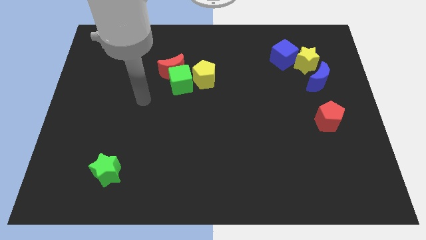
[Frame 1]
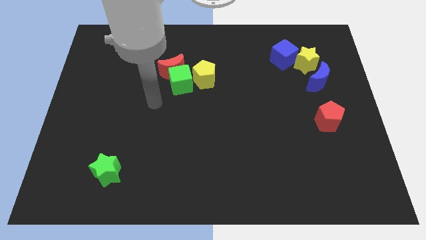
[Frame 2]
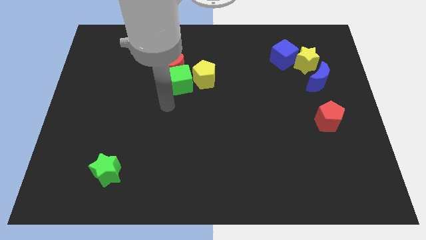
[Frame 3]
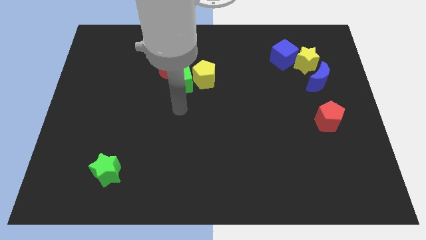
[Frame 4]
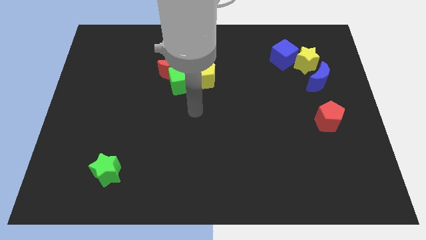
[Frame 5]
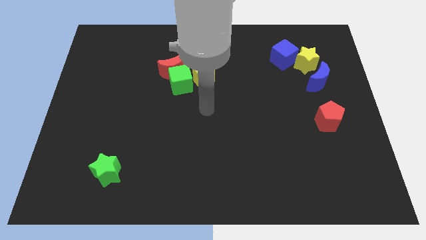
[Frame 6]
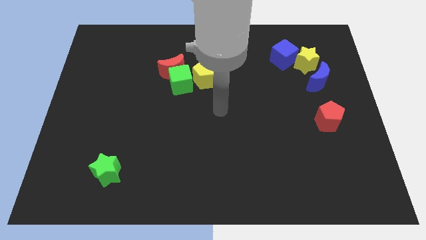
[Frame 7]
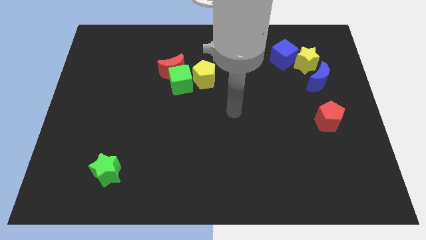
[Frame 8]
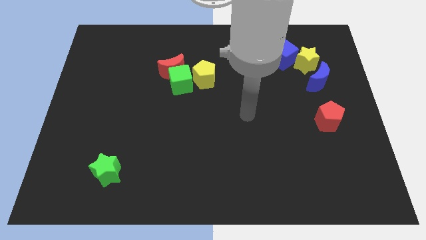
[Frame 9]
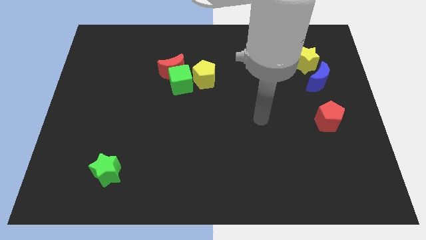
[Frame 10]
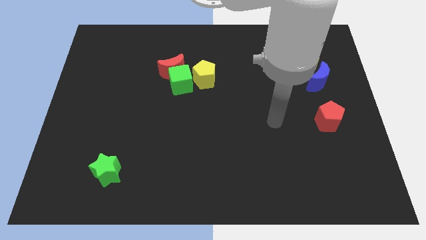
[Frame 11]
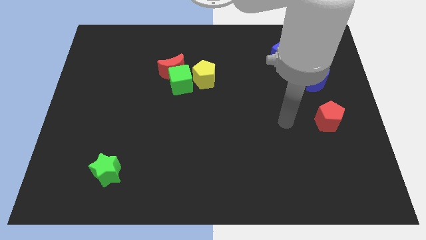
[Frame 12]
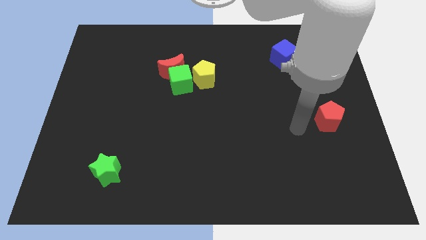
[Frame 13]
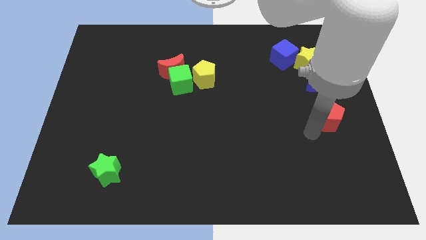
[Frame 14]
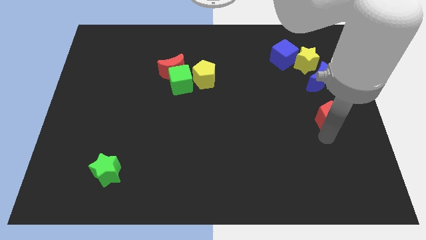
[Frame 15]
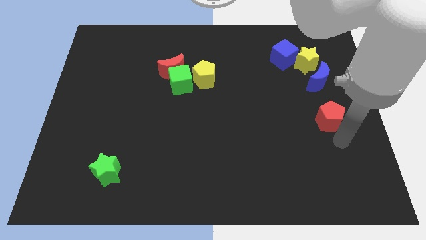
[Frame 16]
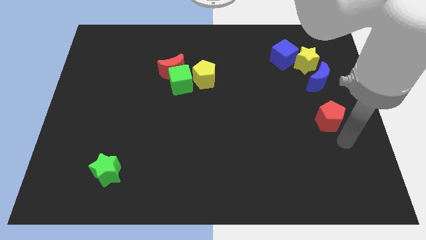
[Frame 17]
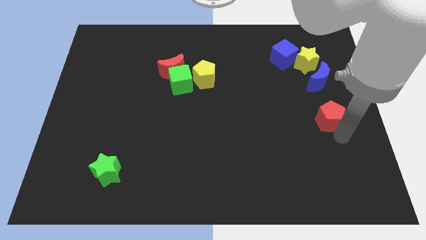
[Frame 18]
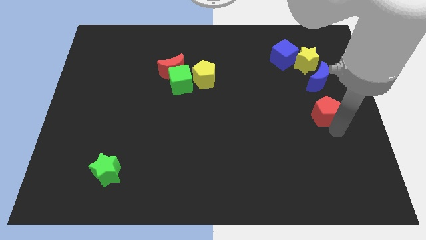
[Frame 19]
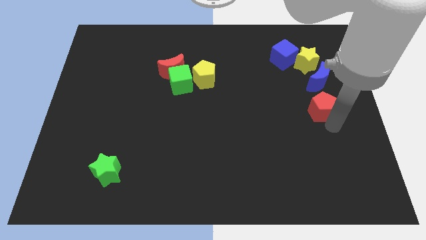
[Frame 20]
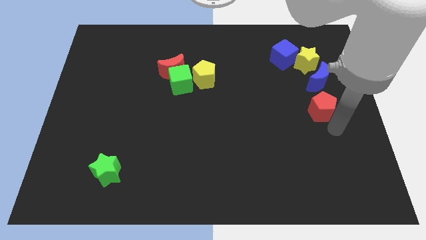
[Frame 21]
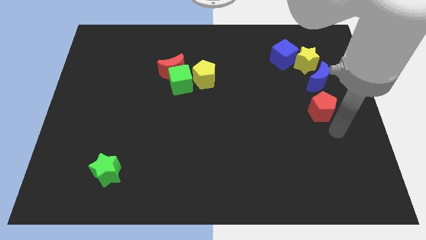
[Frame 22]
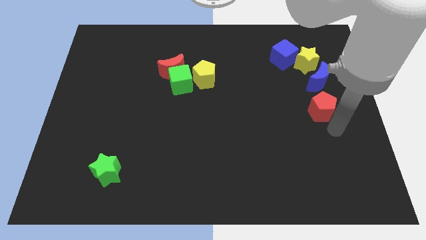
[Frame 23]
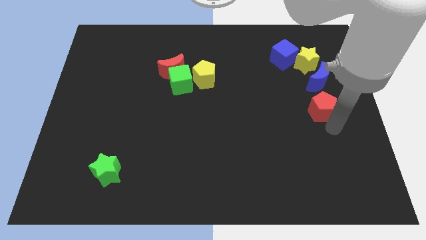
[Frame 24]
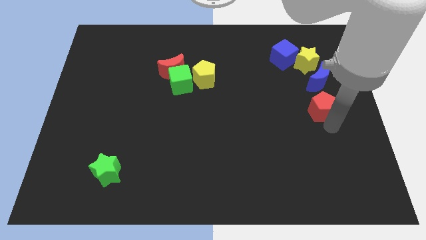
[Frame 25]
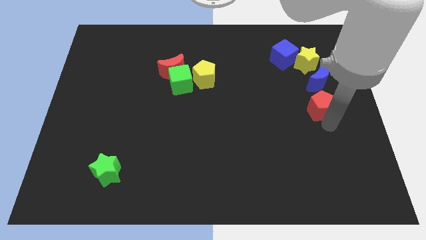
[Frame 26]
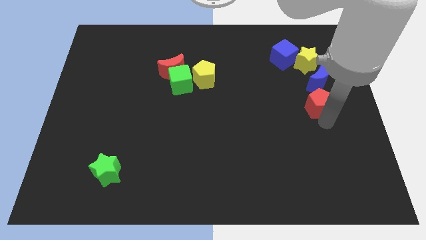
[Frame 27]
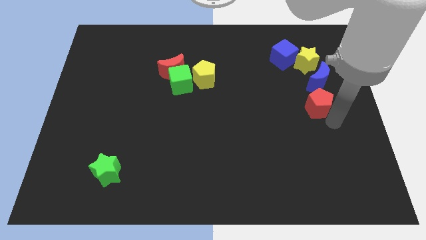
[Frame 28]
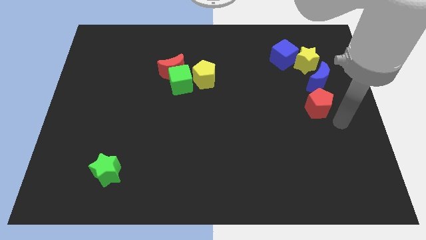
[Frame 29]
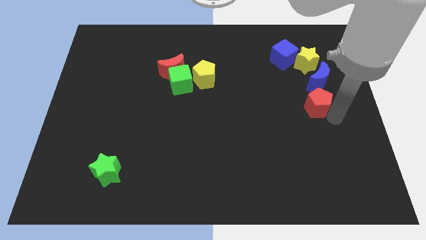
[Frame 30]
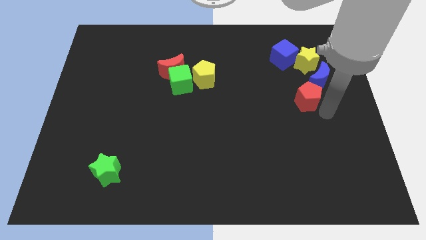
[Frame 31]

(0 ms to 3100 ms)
slide the red pentagon a little upwards and then to the left

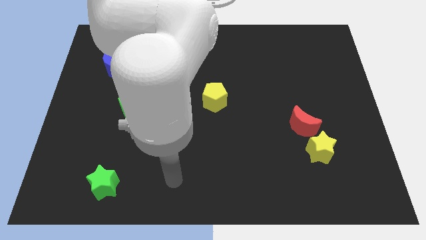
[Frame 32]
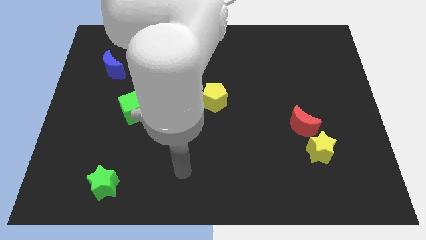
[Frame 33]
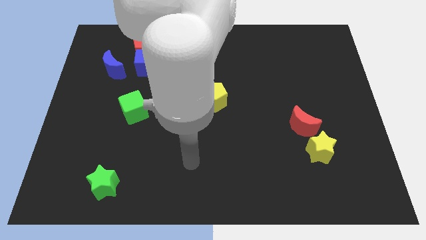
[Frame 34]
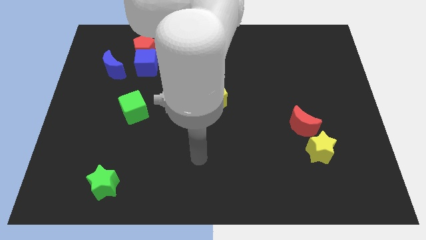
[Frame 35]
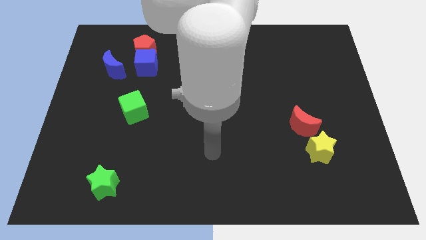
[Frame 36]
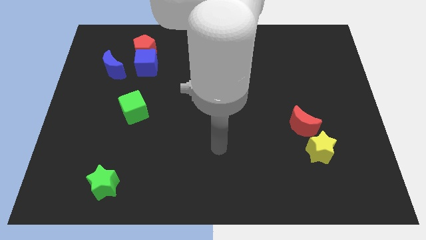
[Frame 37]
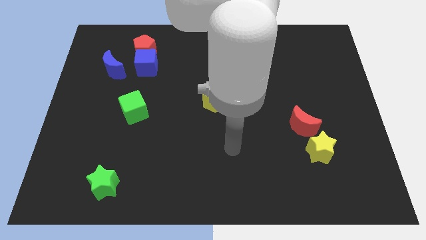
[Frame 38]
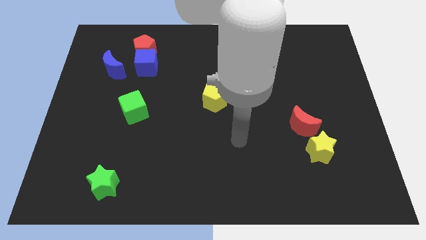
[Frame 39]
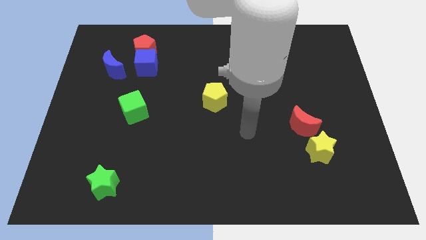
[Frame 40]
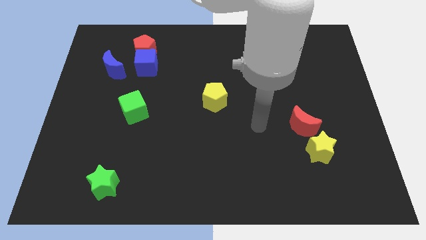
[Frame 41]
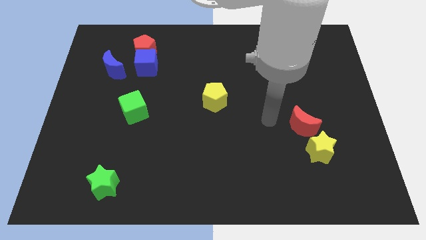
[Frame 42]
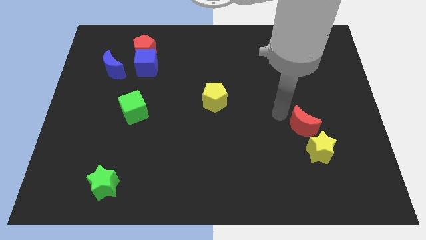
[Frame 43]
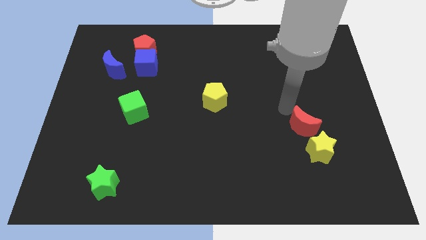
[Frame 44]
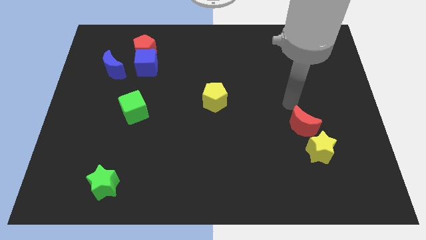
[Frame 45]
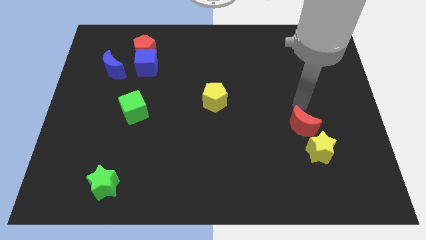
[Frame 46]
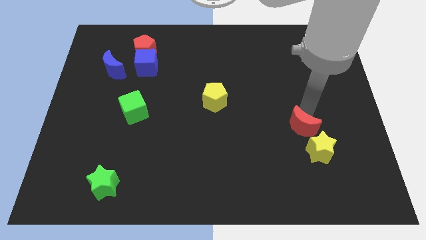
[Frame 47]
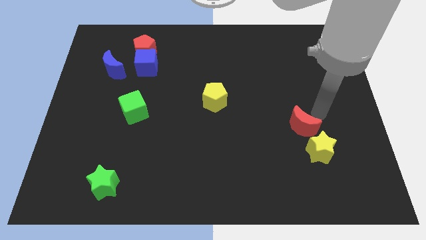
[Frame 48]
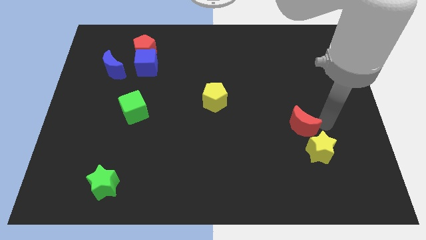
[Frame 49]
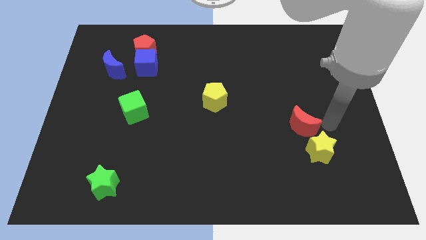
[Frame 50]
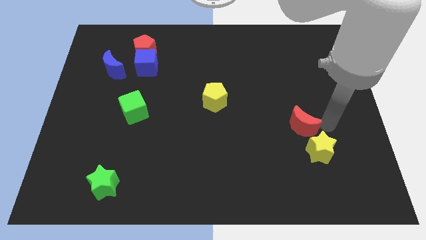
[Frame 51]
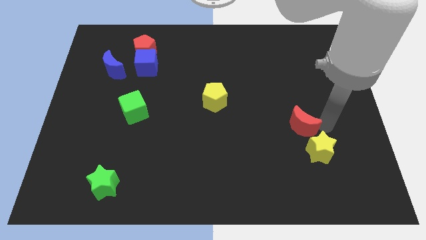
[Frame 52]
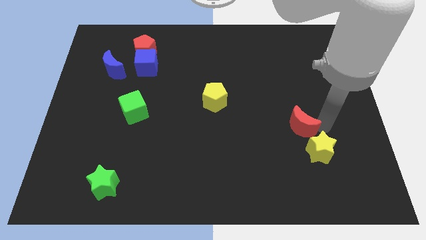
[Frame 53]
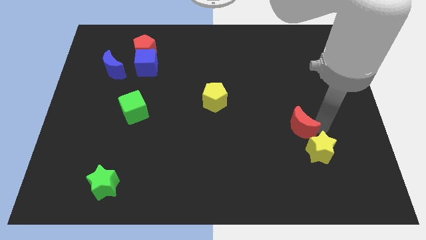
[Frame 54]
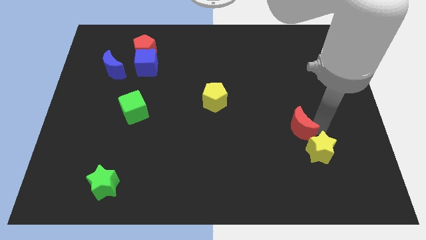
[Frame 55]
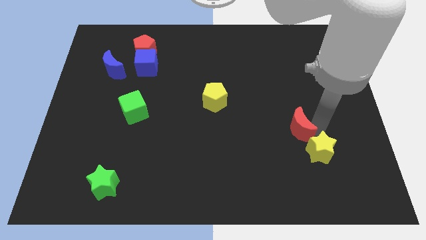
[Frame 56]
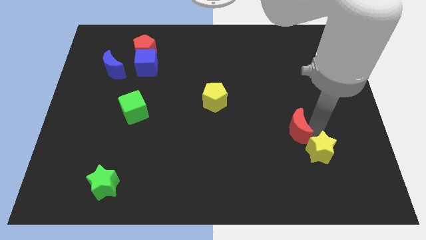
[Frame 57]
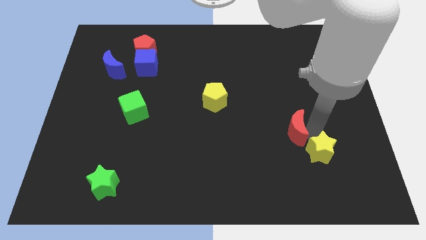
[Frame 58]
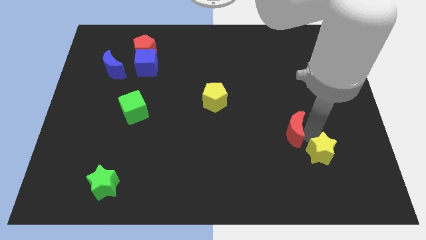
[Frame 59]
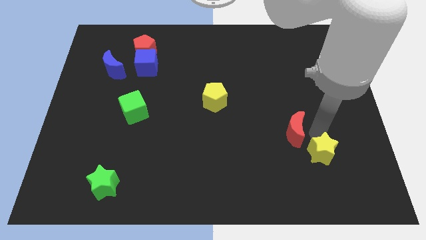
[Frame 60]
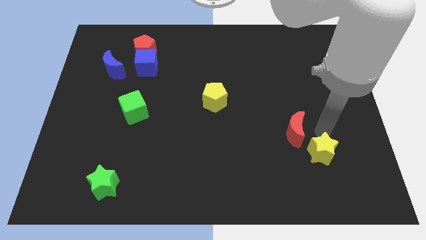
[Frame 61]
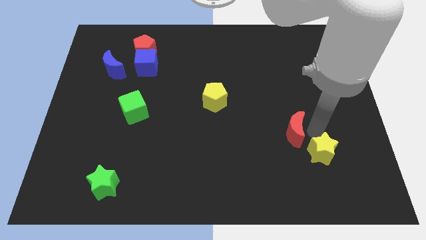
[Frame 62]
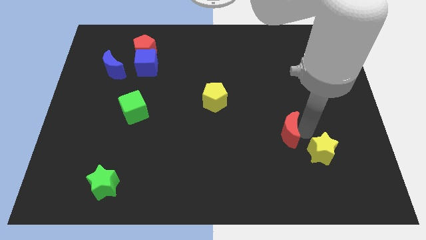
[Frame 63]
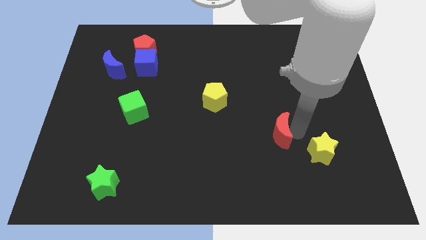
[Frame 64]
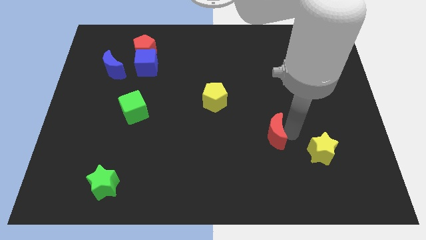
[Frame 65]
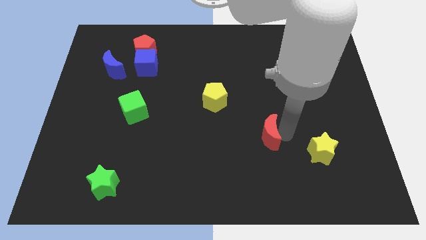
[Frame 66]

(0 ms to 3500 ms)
move the red moon a little to the left

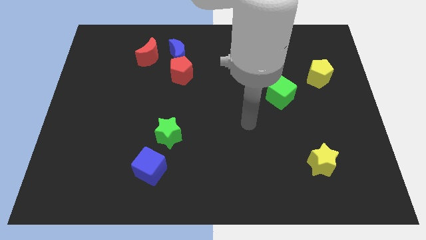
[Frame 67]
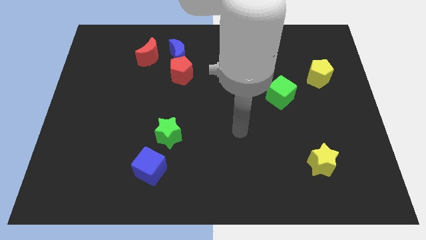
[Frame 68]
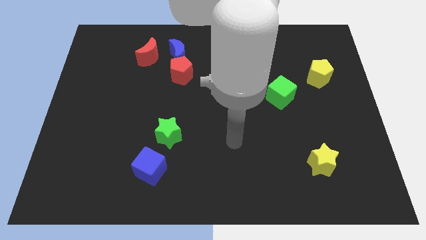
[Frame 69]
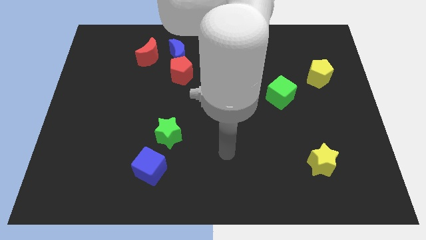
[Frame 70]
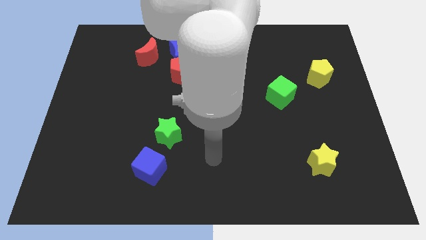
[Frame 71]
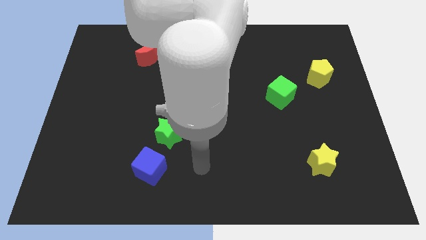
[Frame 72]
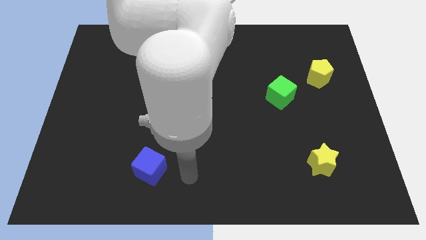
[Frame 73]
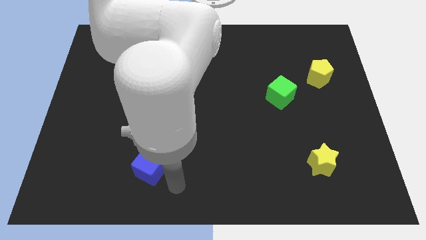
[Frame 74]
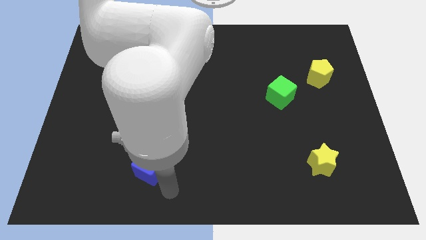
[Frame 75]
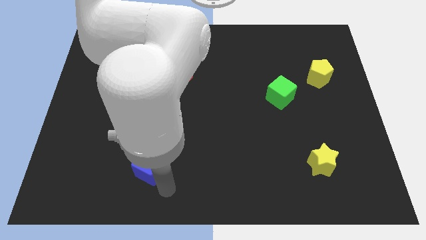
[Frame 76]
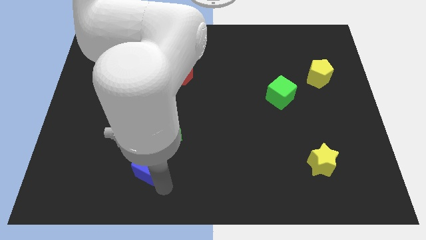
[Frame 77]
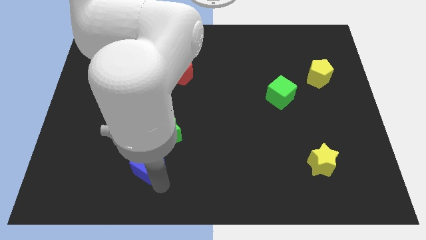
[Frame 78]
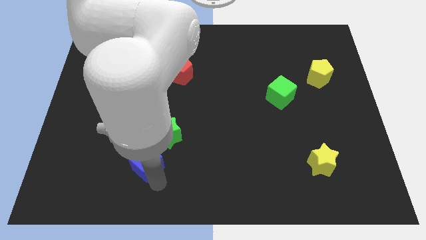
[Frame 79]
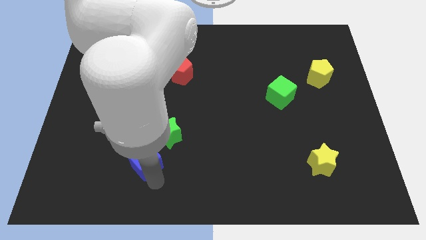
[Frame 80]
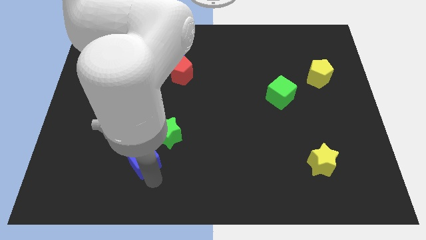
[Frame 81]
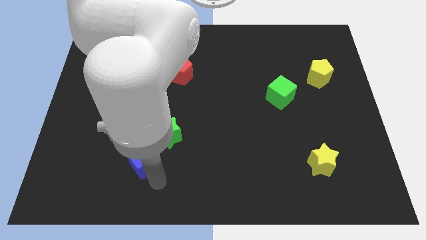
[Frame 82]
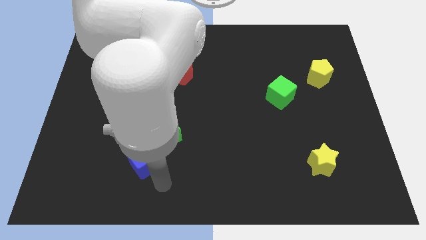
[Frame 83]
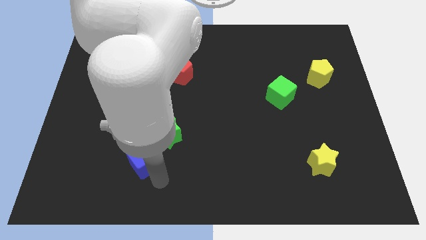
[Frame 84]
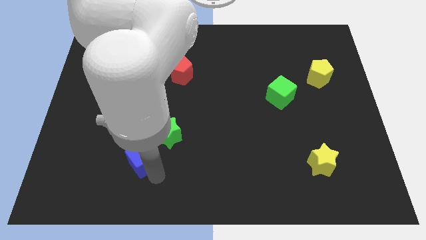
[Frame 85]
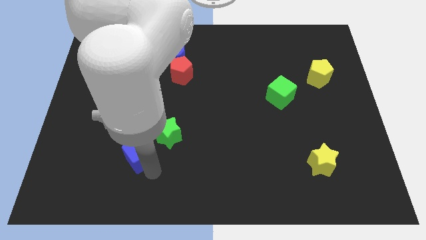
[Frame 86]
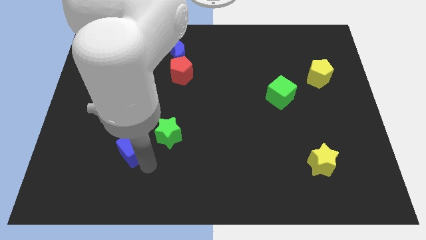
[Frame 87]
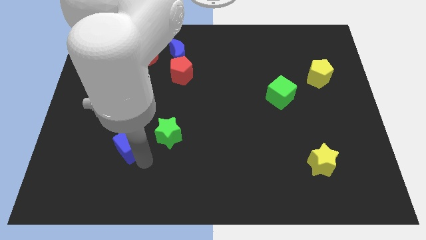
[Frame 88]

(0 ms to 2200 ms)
slide the blue cube slightly diagonally up and left
